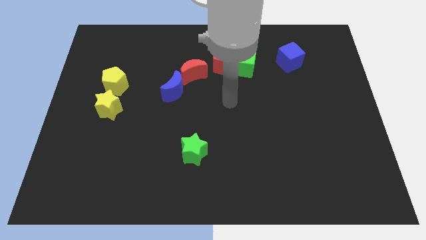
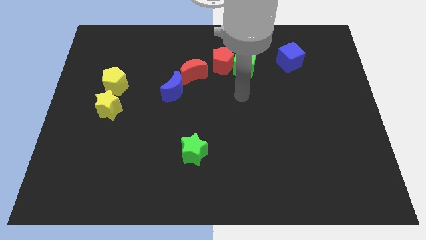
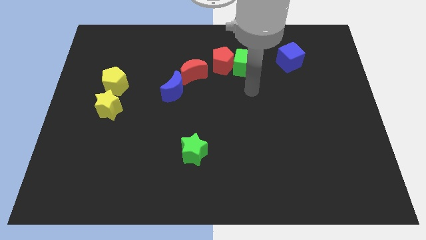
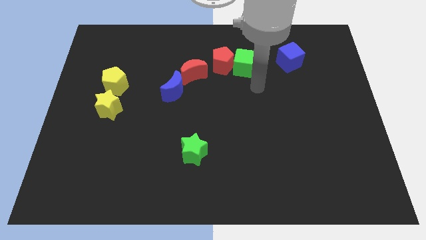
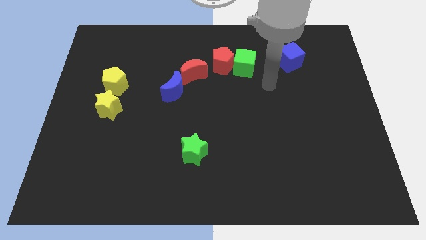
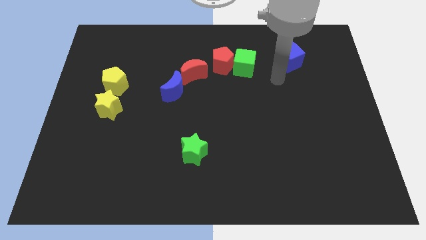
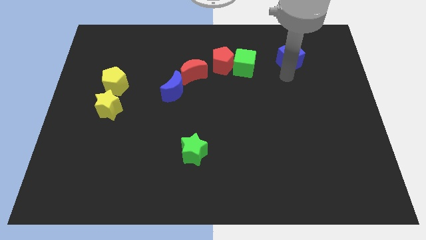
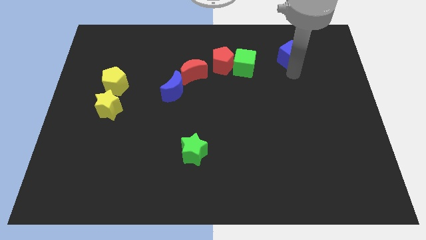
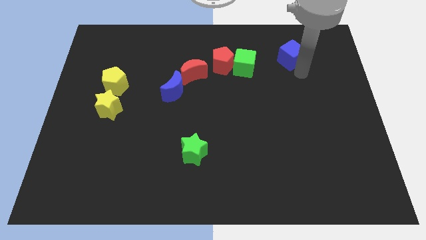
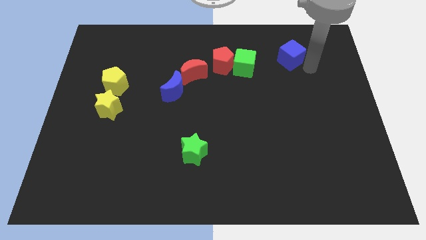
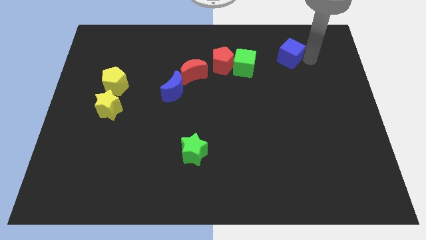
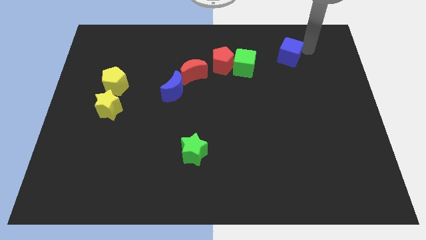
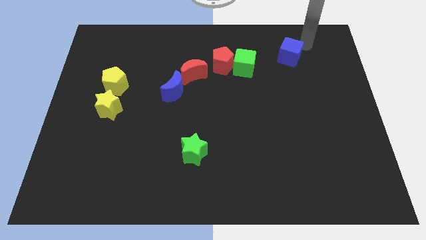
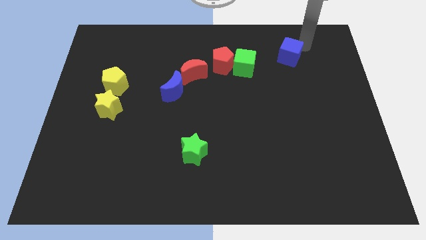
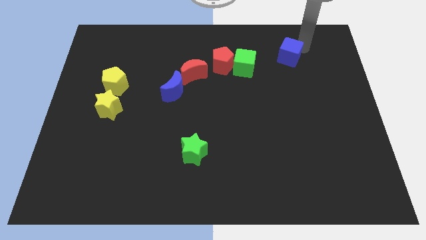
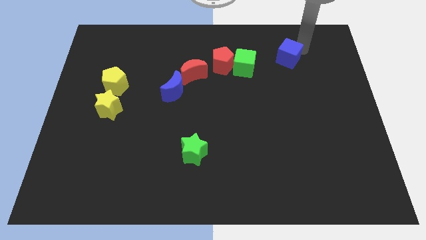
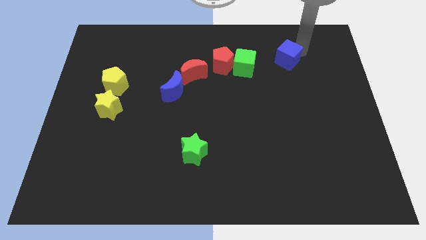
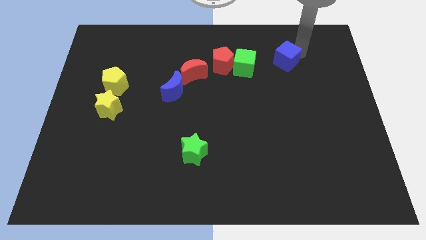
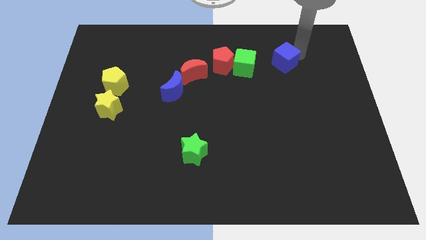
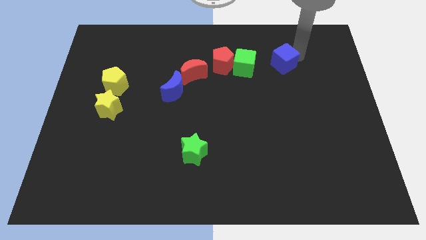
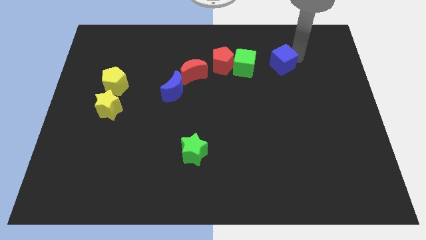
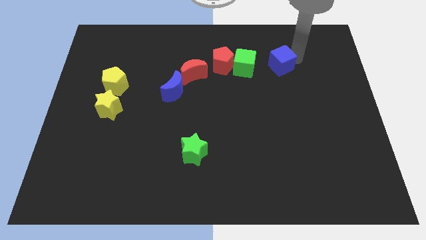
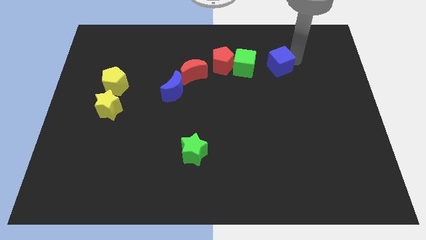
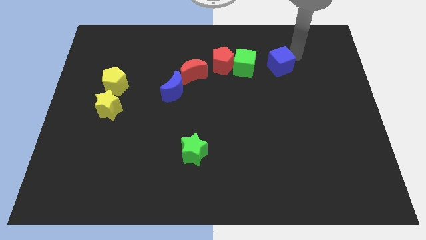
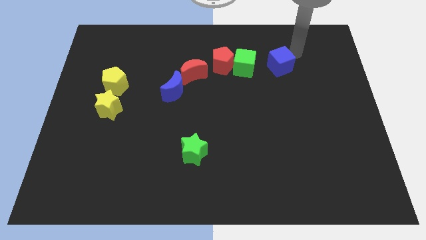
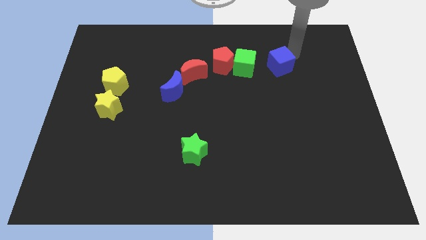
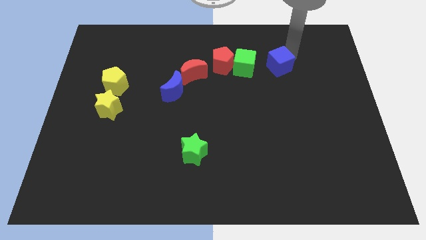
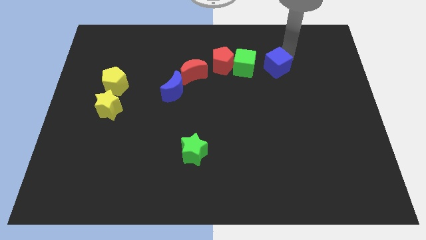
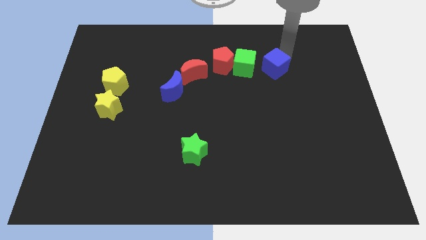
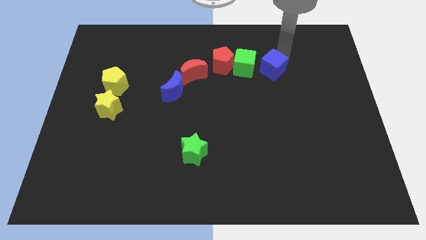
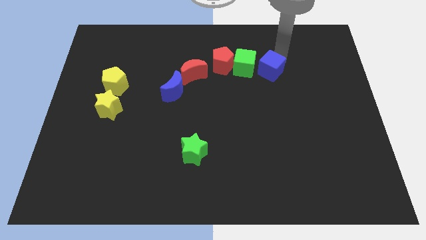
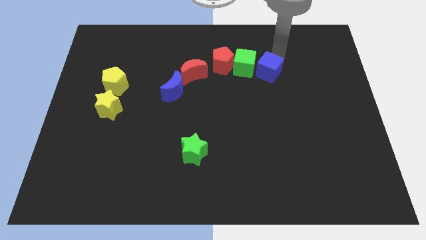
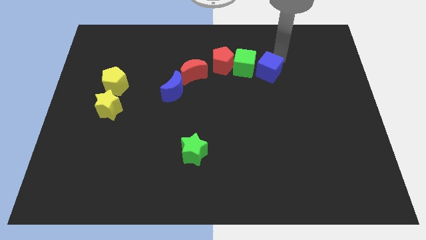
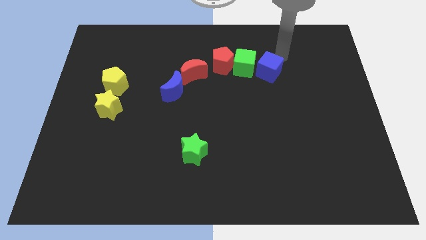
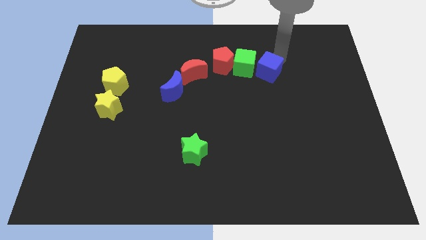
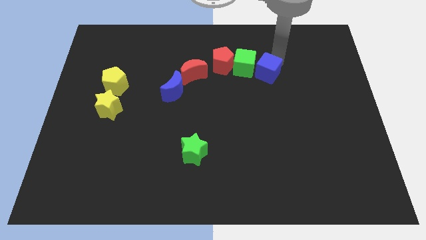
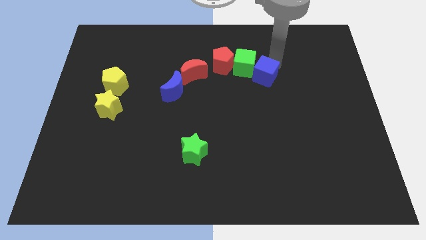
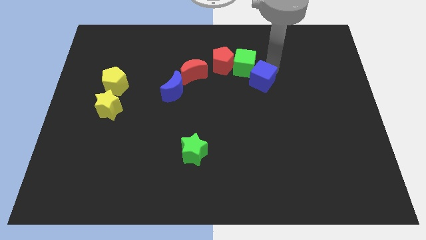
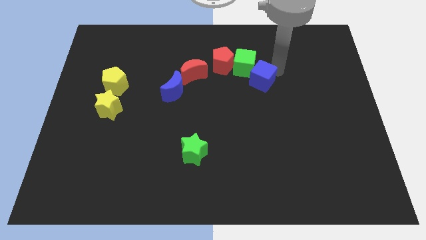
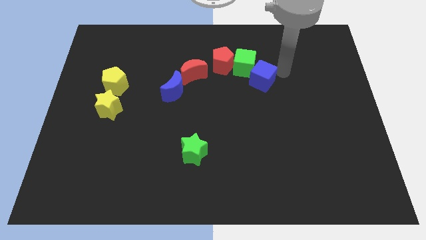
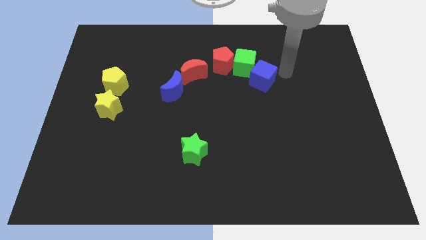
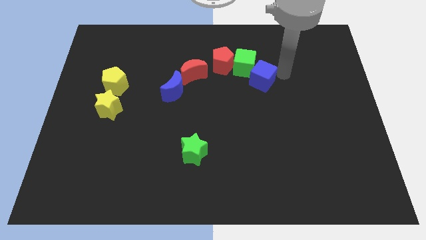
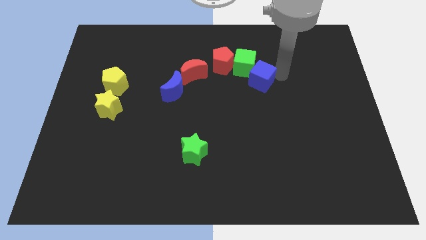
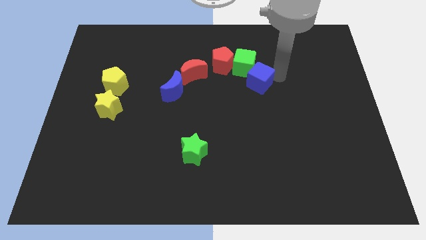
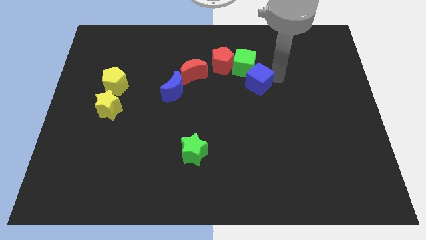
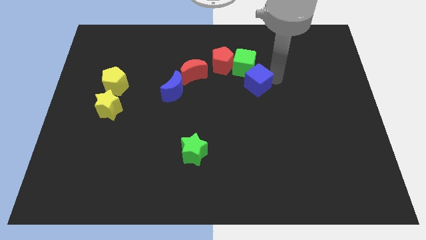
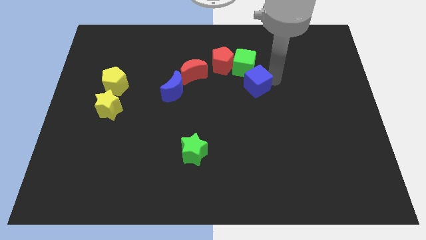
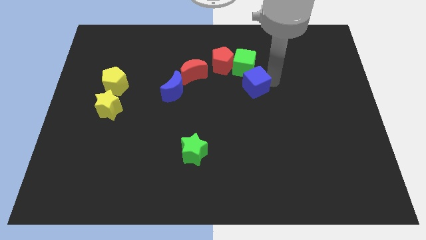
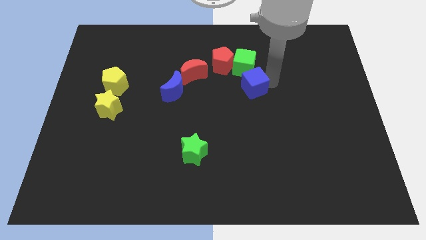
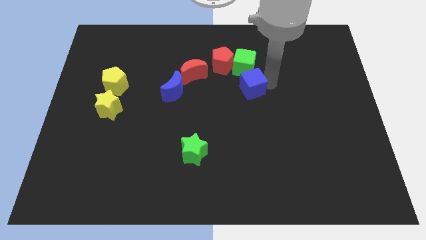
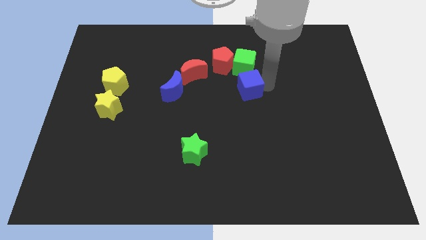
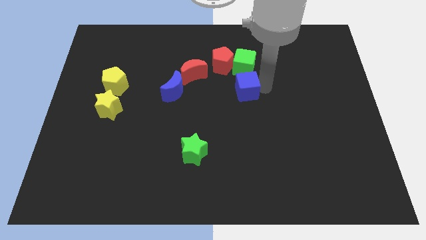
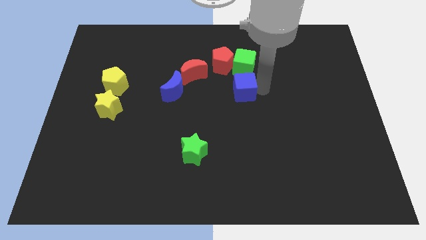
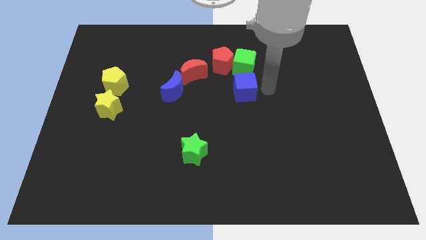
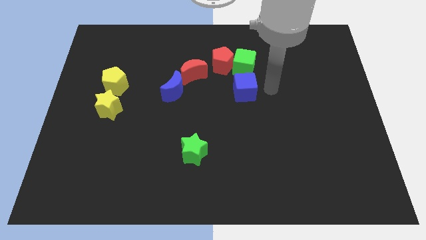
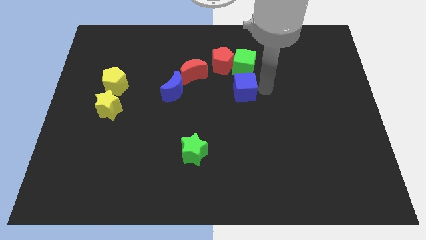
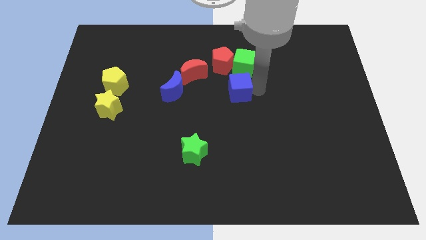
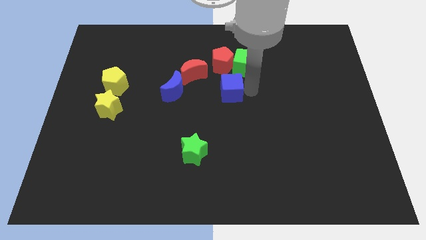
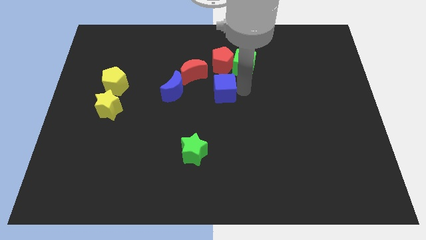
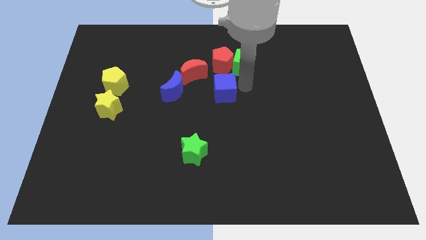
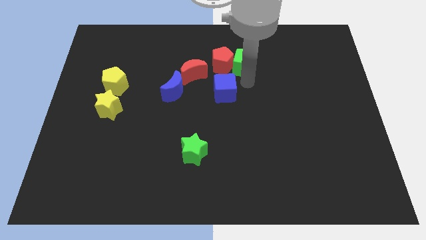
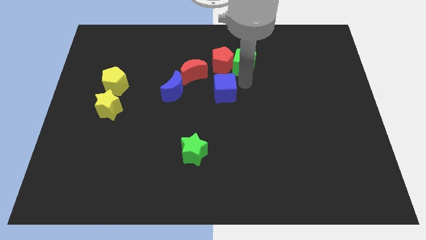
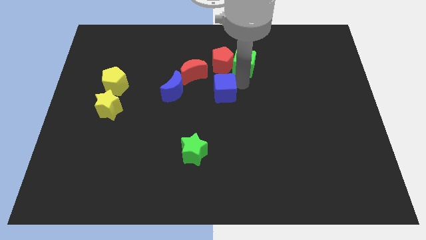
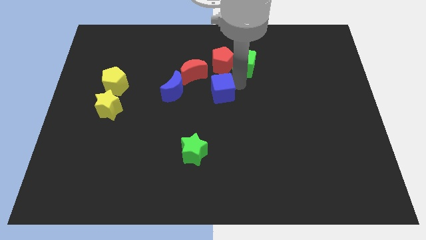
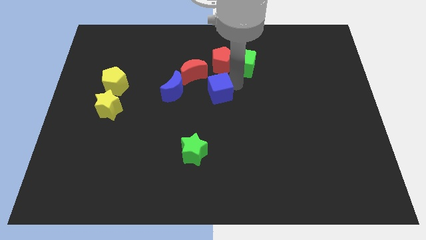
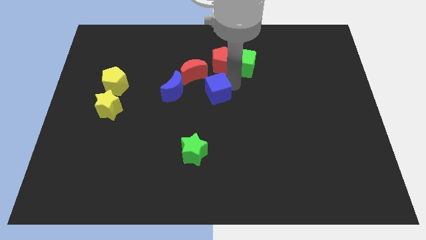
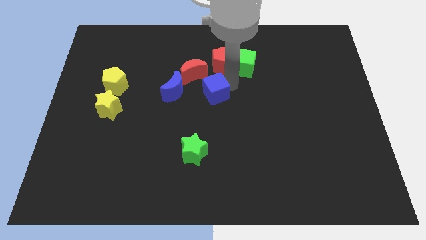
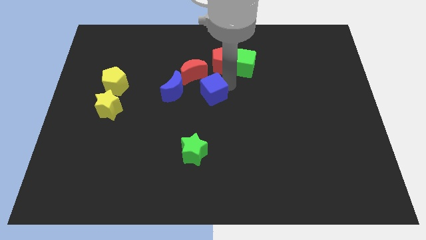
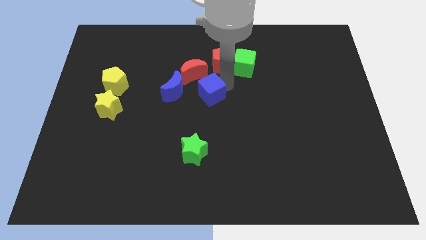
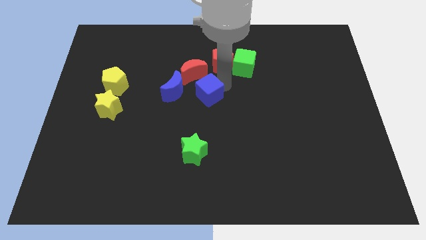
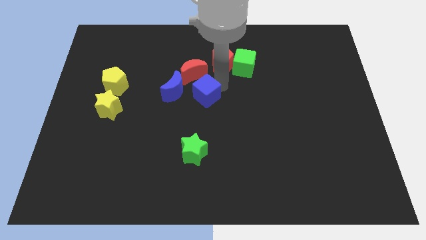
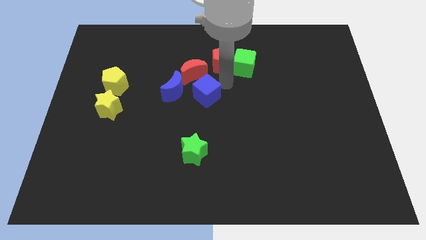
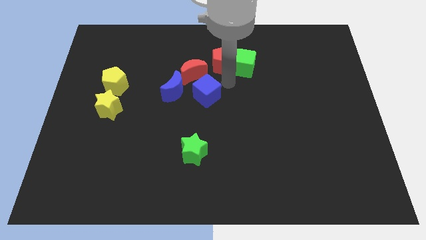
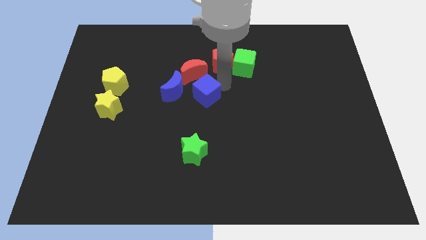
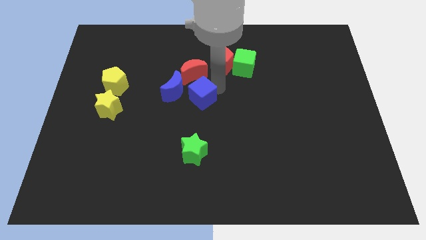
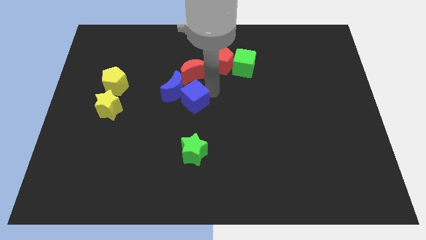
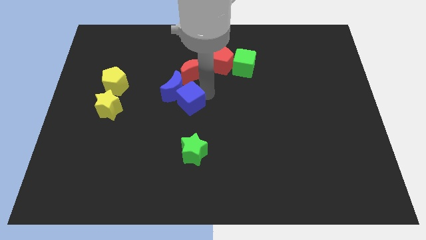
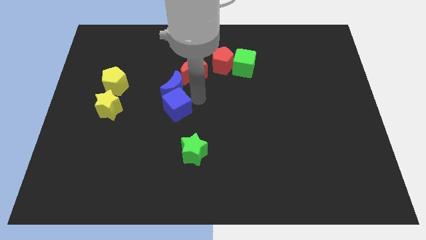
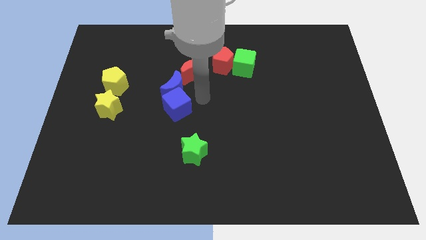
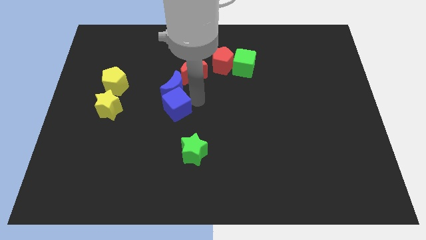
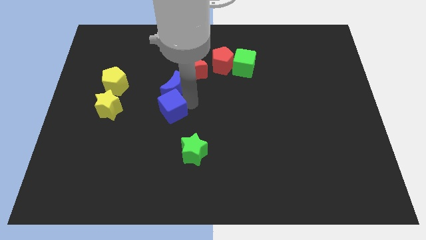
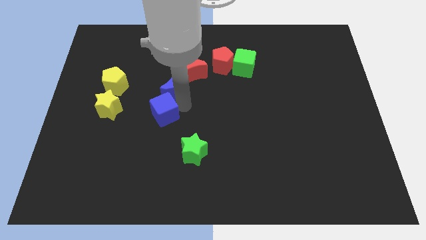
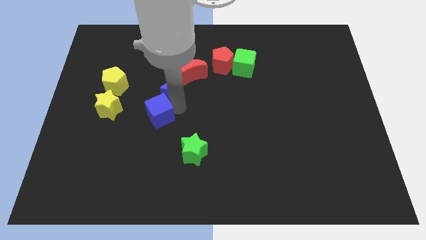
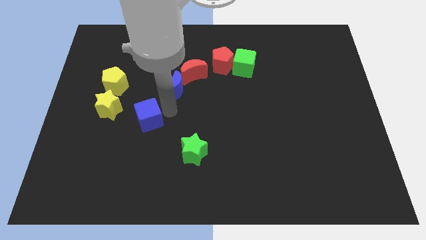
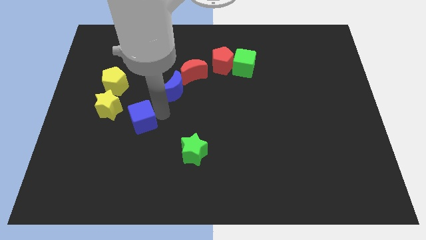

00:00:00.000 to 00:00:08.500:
move the blue cube diagonally down and to the right of the yellow star
